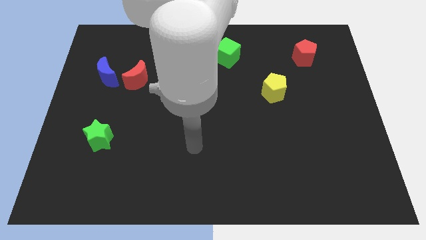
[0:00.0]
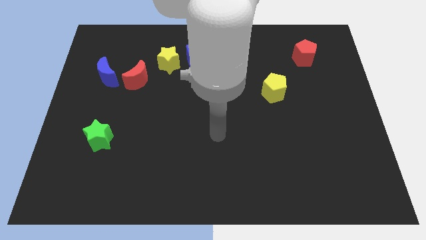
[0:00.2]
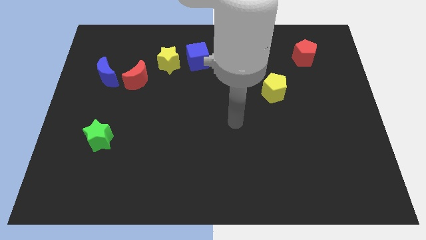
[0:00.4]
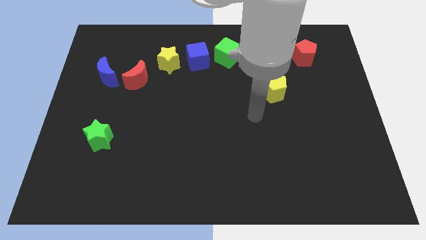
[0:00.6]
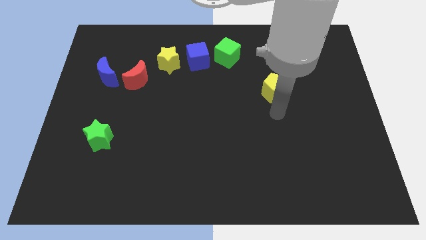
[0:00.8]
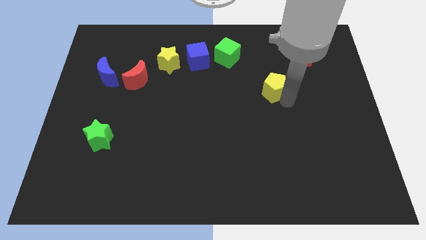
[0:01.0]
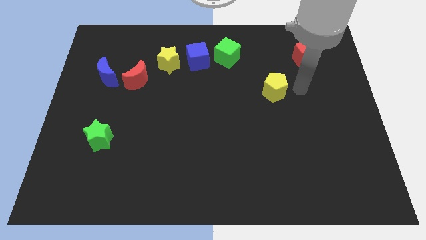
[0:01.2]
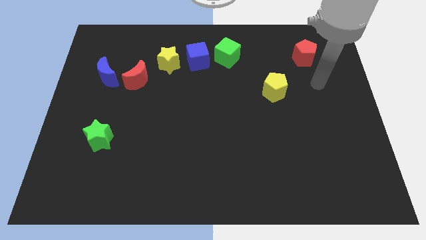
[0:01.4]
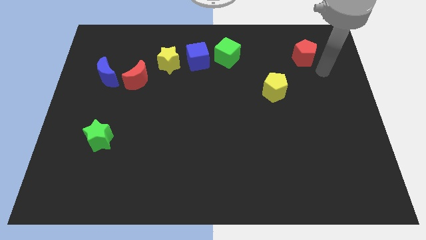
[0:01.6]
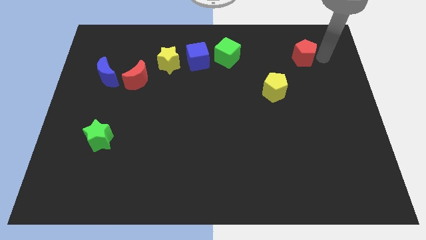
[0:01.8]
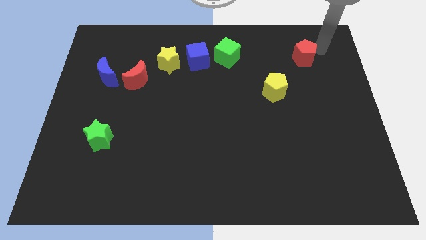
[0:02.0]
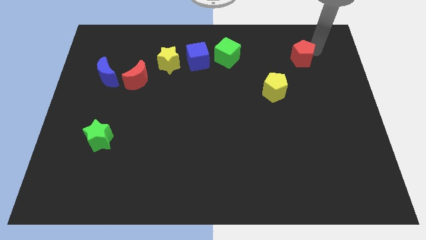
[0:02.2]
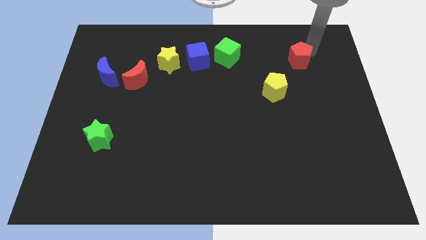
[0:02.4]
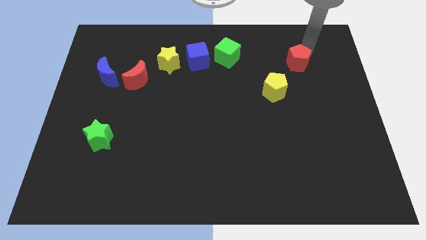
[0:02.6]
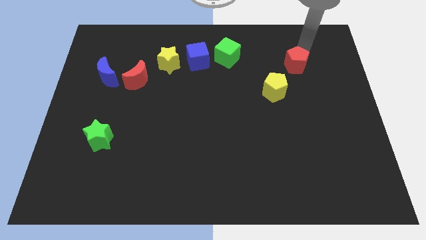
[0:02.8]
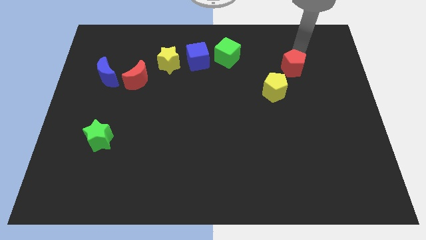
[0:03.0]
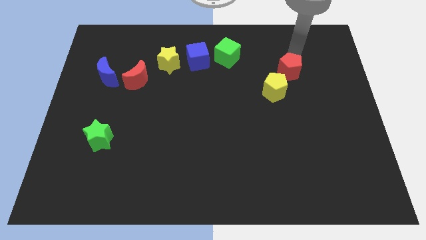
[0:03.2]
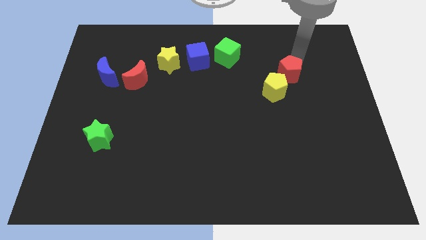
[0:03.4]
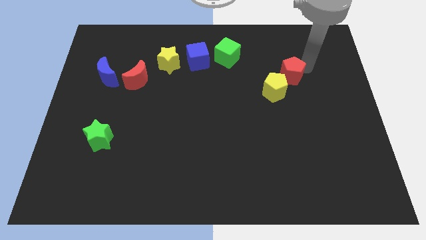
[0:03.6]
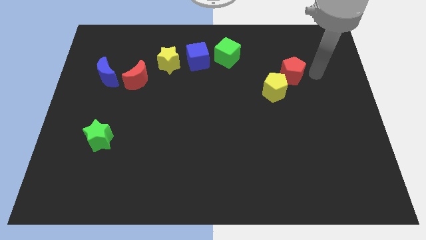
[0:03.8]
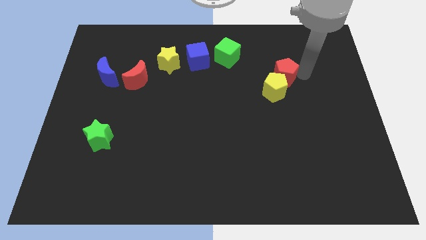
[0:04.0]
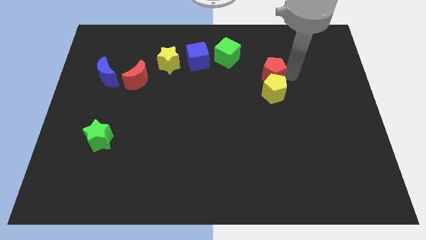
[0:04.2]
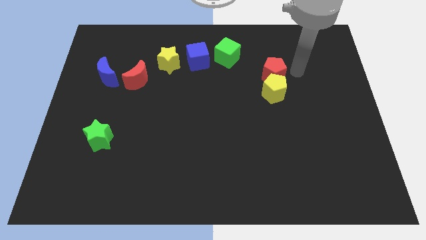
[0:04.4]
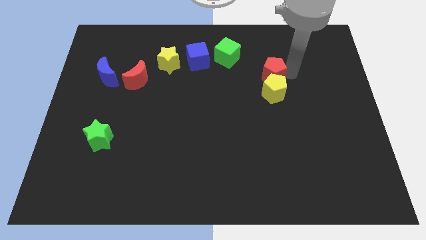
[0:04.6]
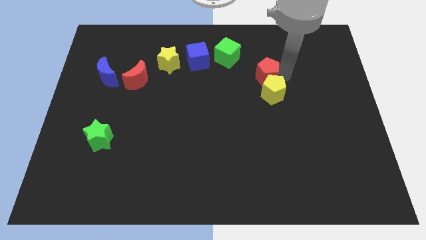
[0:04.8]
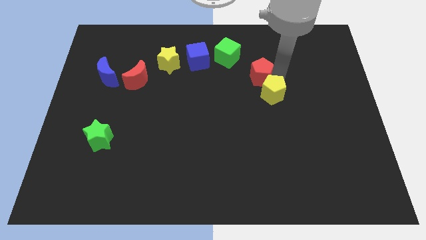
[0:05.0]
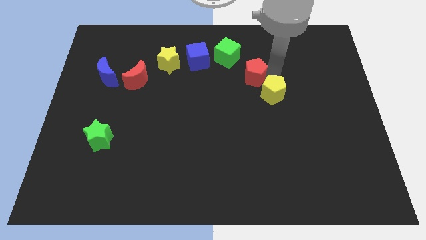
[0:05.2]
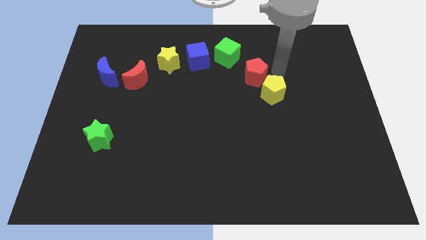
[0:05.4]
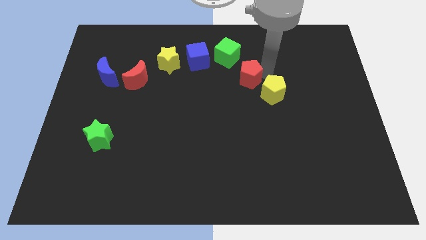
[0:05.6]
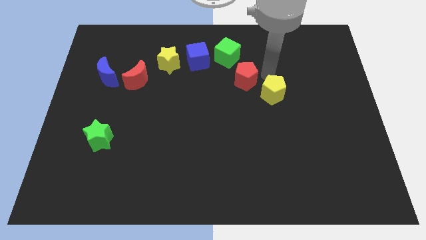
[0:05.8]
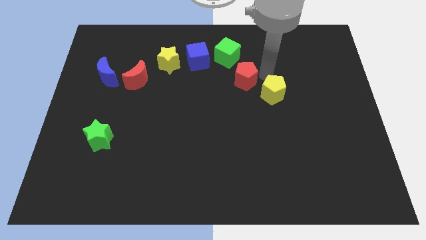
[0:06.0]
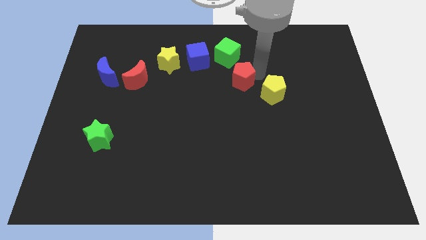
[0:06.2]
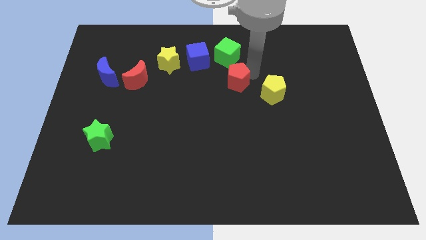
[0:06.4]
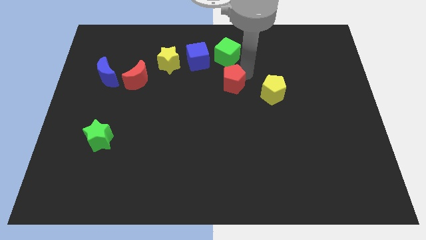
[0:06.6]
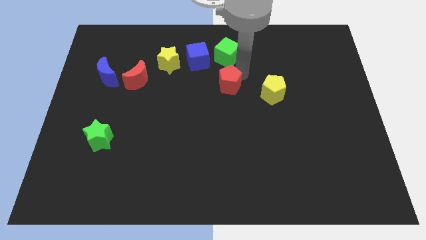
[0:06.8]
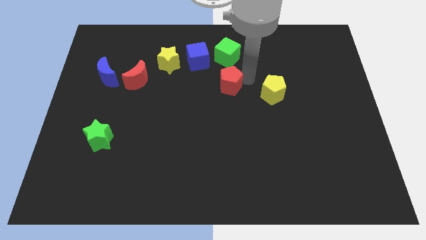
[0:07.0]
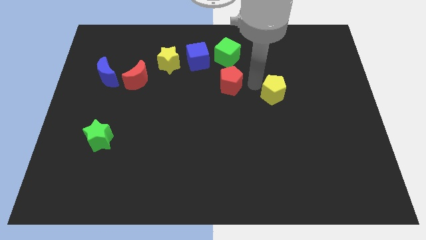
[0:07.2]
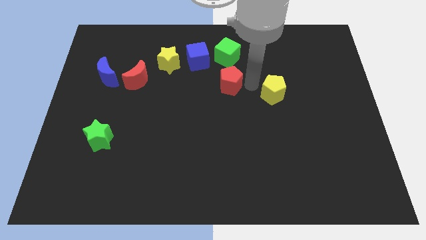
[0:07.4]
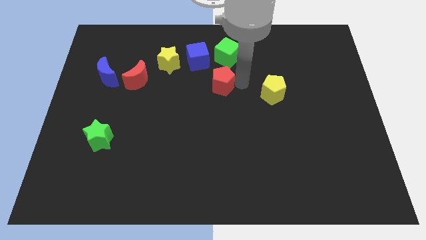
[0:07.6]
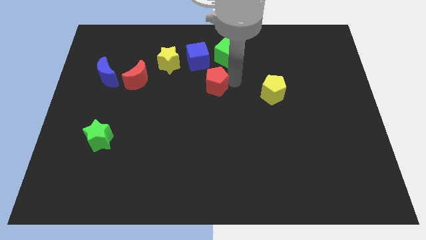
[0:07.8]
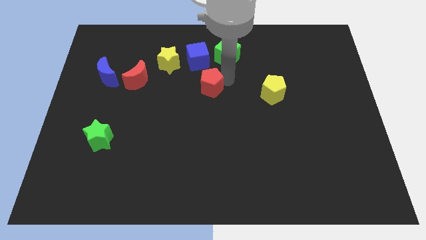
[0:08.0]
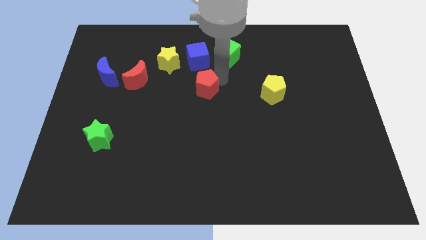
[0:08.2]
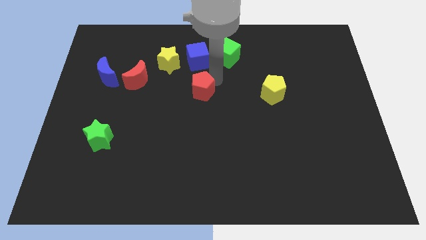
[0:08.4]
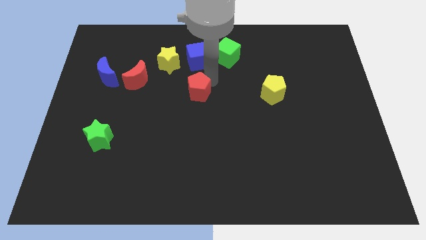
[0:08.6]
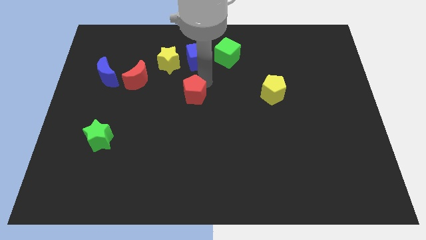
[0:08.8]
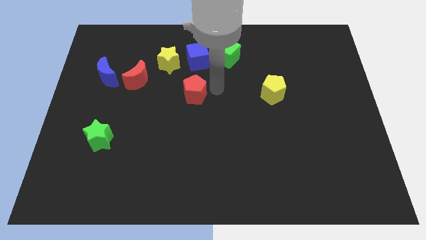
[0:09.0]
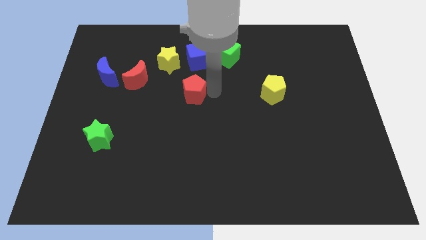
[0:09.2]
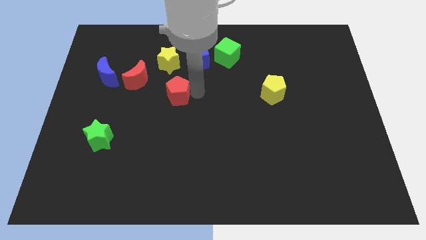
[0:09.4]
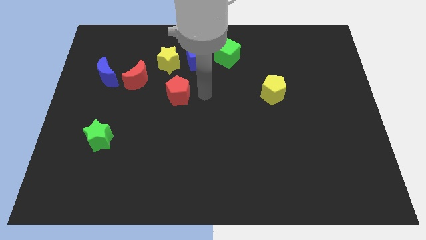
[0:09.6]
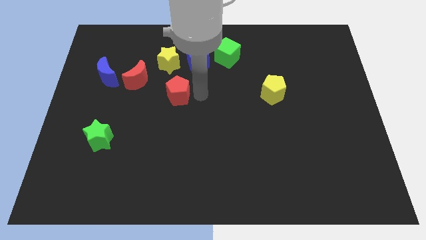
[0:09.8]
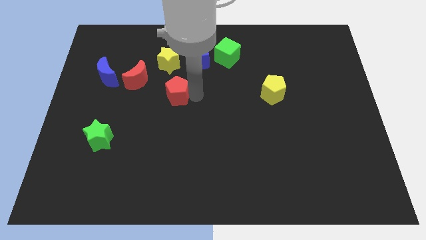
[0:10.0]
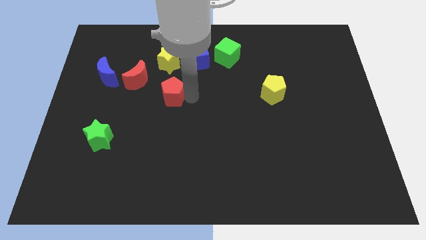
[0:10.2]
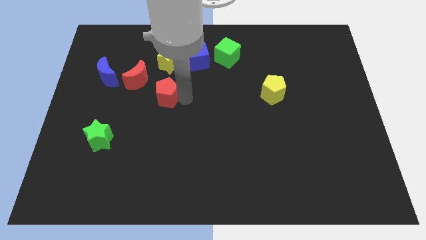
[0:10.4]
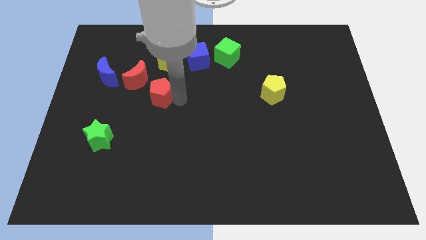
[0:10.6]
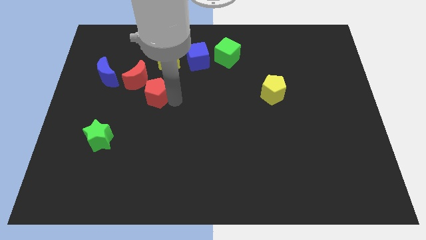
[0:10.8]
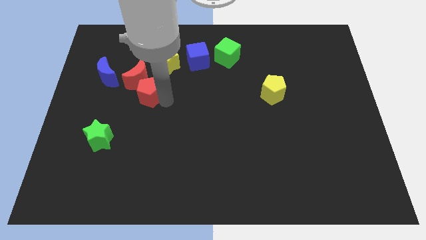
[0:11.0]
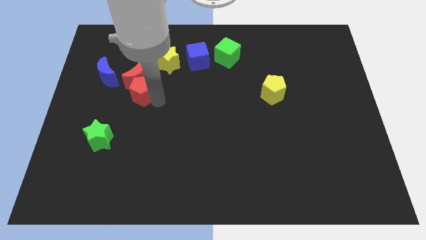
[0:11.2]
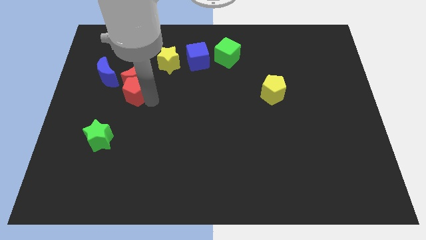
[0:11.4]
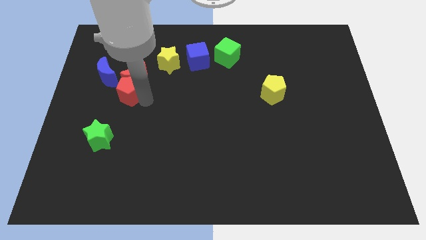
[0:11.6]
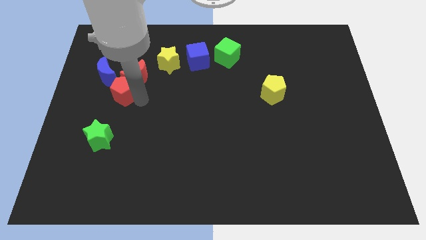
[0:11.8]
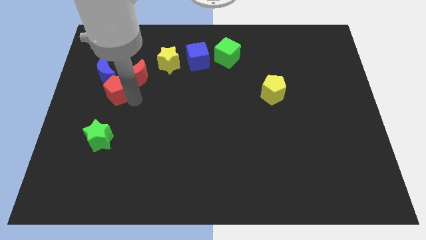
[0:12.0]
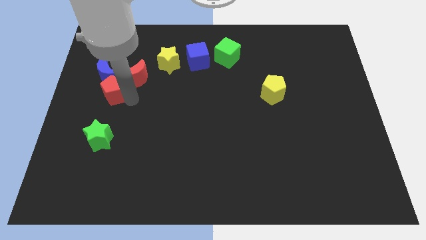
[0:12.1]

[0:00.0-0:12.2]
put the red pentagon towards the blue moon

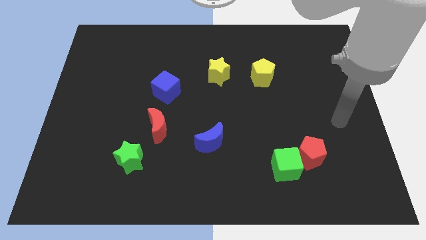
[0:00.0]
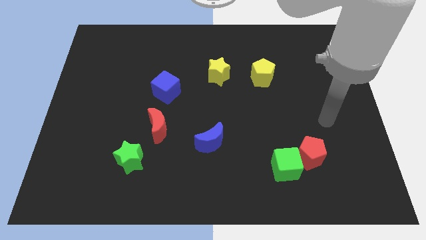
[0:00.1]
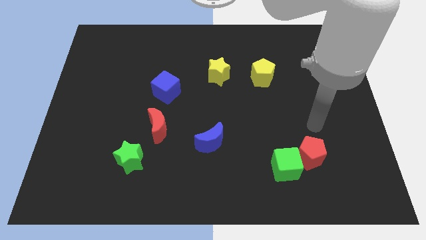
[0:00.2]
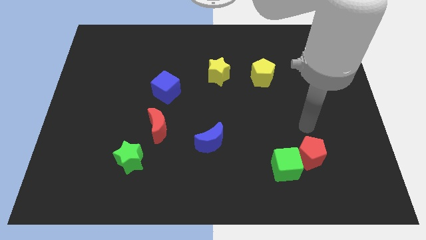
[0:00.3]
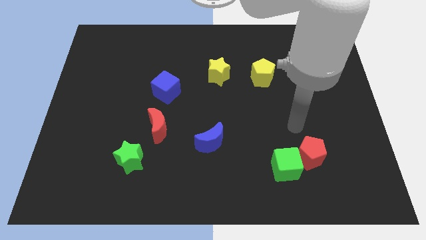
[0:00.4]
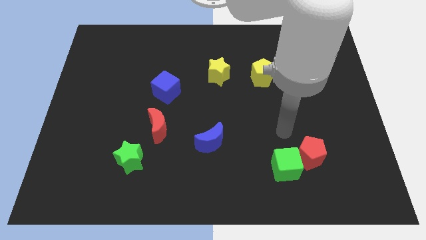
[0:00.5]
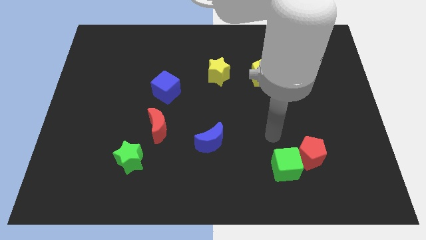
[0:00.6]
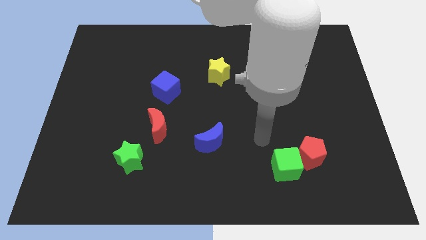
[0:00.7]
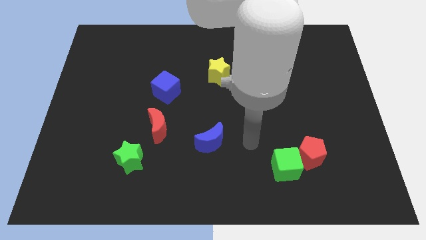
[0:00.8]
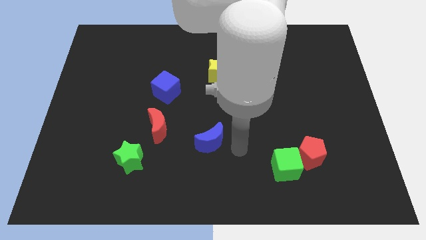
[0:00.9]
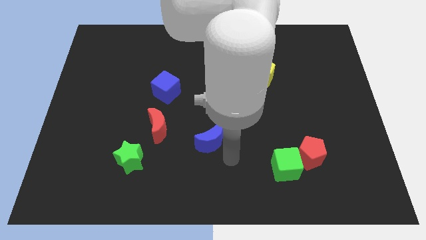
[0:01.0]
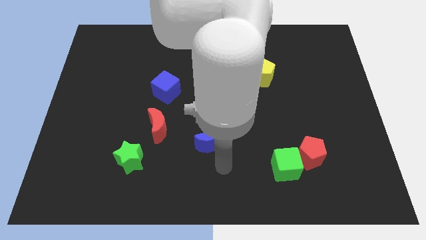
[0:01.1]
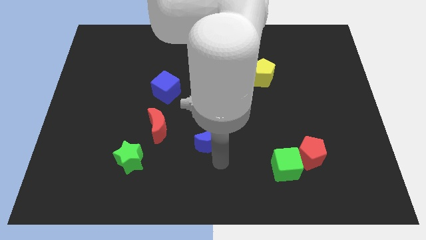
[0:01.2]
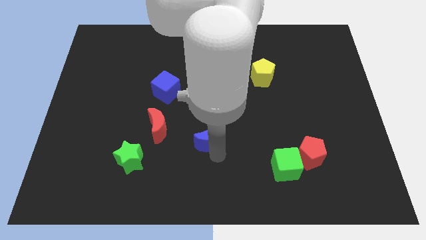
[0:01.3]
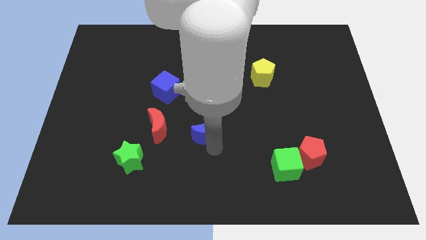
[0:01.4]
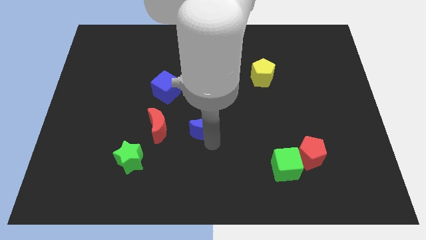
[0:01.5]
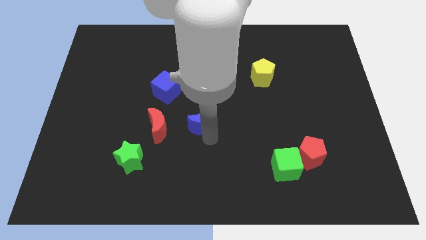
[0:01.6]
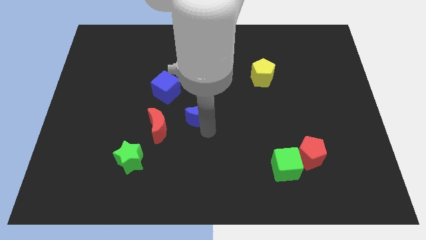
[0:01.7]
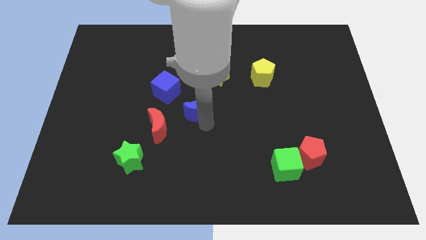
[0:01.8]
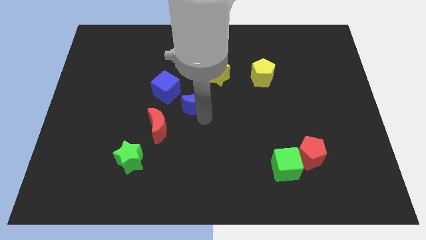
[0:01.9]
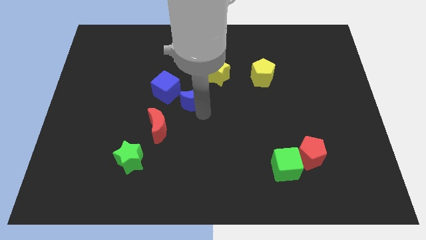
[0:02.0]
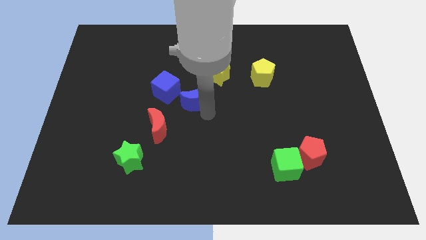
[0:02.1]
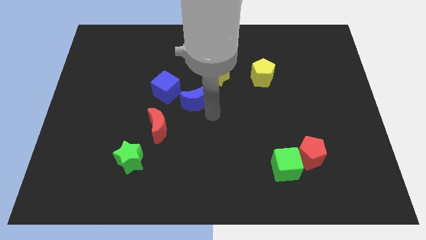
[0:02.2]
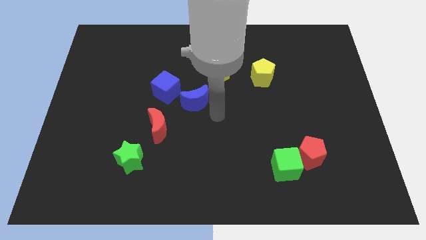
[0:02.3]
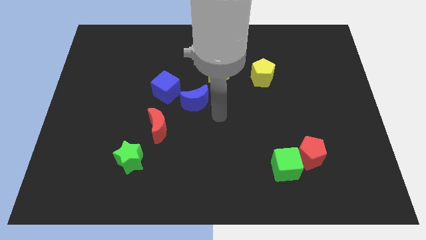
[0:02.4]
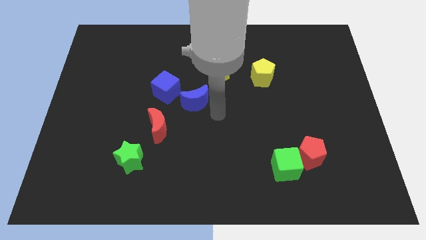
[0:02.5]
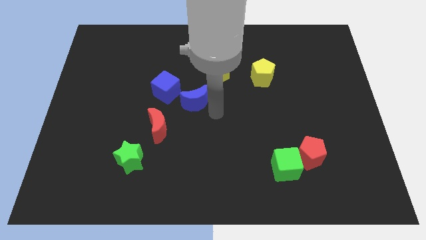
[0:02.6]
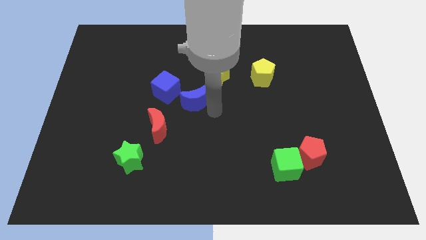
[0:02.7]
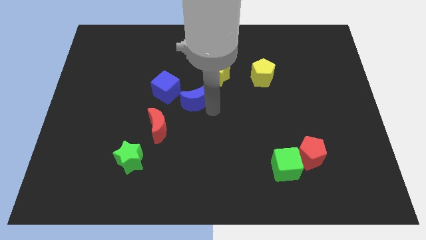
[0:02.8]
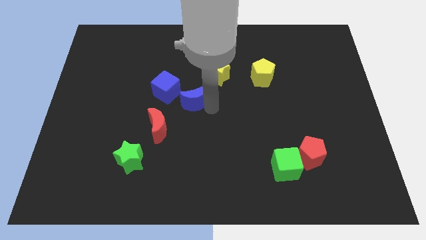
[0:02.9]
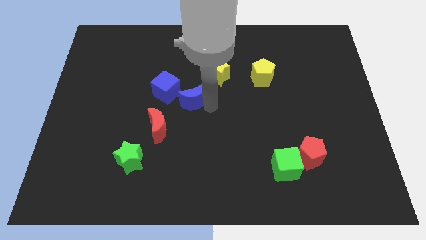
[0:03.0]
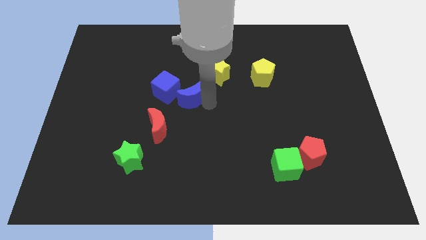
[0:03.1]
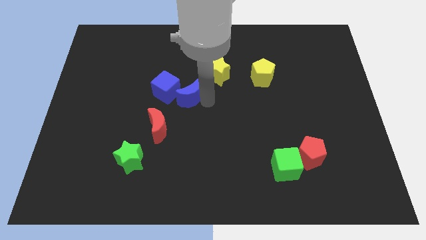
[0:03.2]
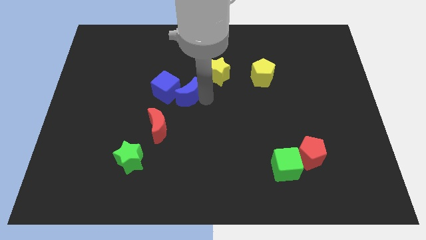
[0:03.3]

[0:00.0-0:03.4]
push the blue moon close to the blue cube
